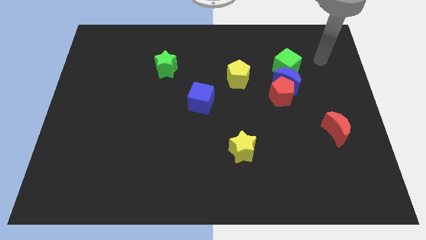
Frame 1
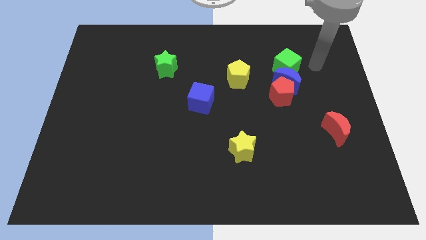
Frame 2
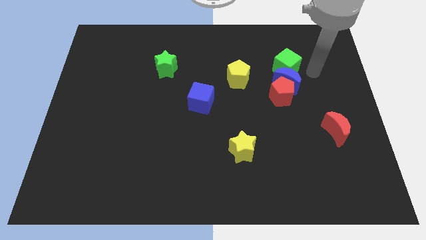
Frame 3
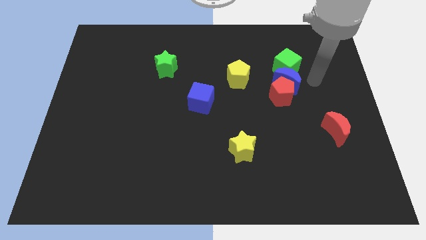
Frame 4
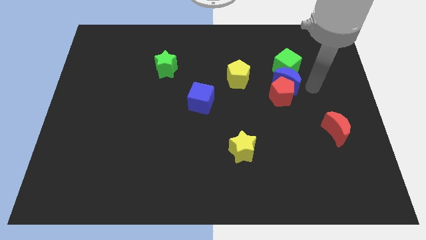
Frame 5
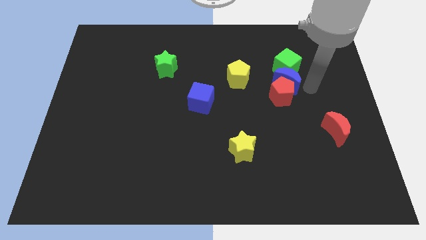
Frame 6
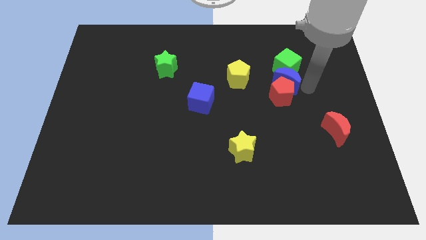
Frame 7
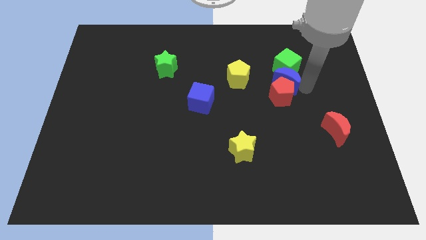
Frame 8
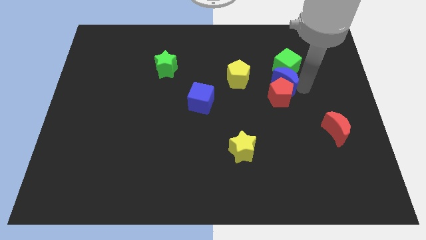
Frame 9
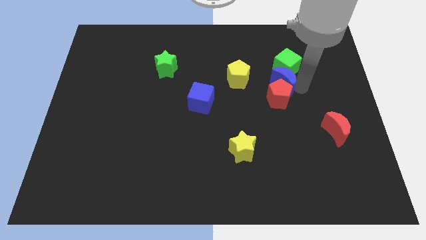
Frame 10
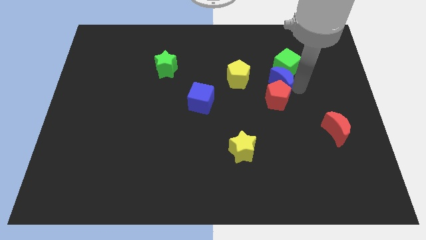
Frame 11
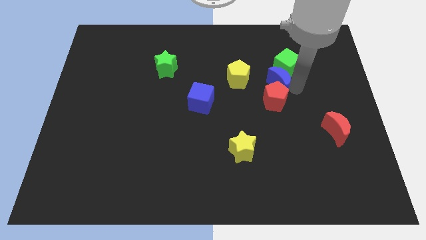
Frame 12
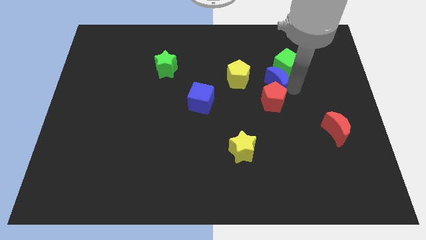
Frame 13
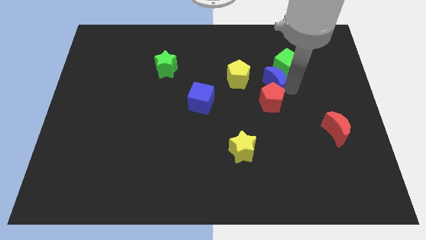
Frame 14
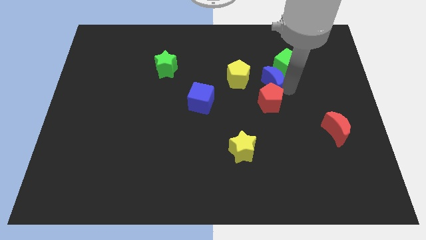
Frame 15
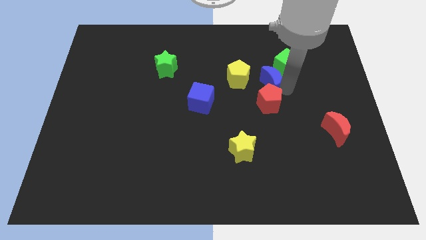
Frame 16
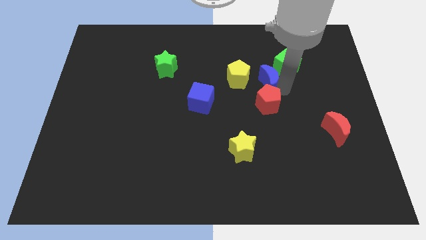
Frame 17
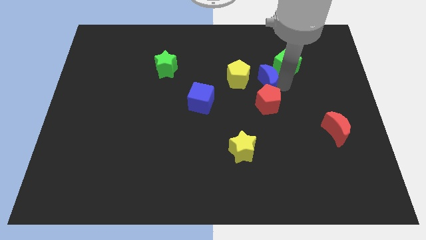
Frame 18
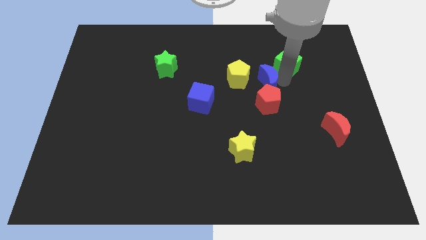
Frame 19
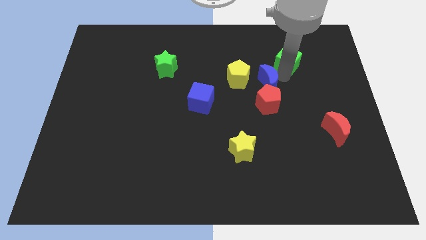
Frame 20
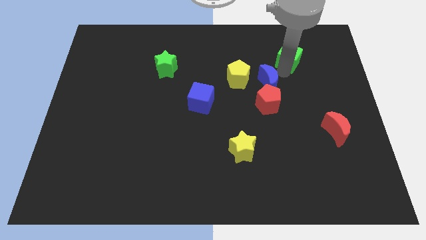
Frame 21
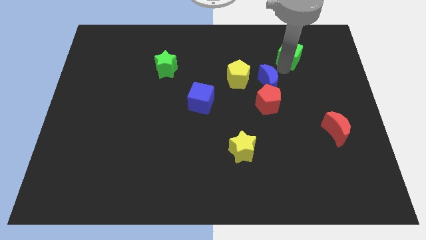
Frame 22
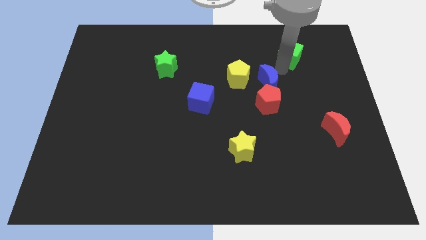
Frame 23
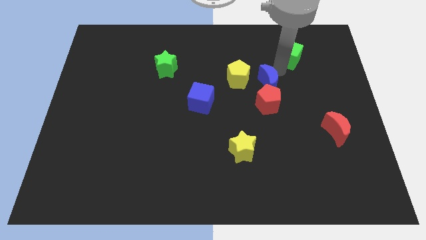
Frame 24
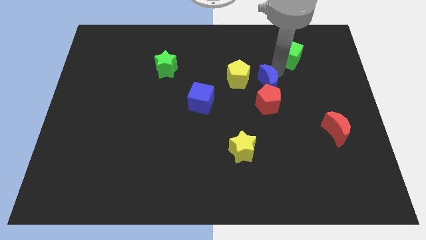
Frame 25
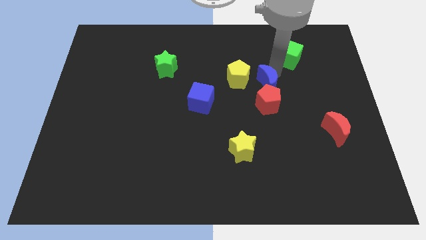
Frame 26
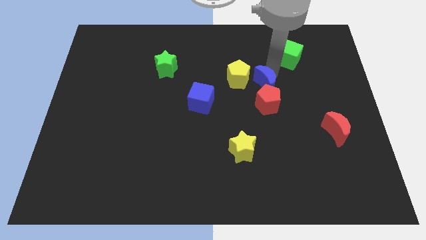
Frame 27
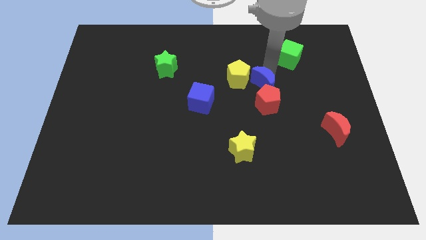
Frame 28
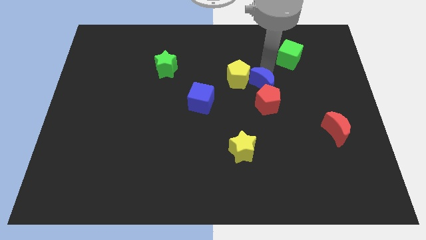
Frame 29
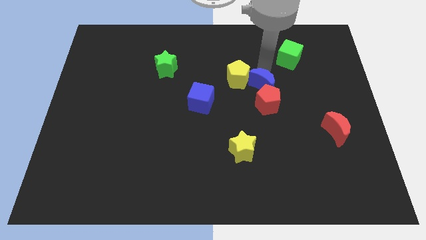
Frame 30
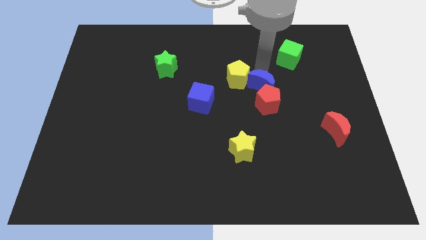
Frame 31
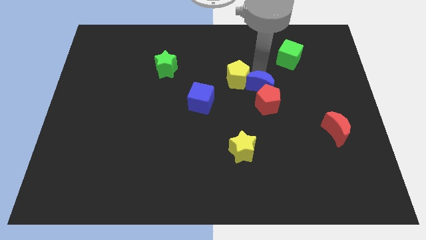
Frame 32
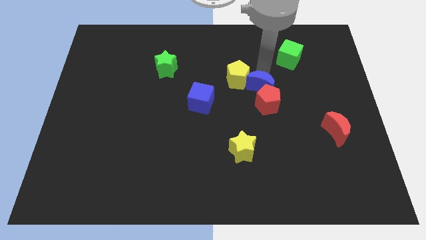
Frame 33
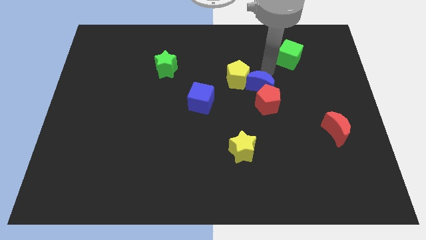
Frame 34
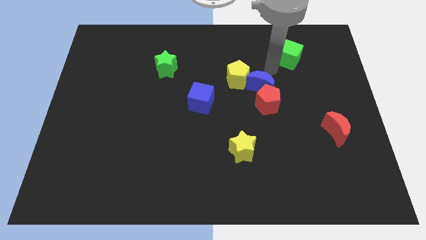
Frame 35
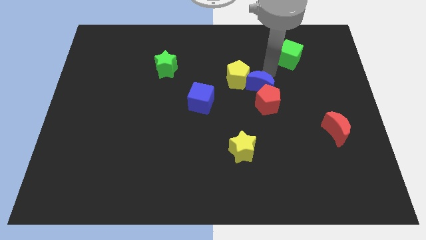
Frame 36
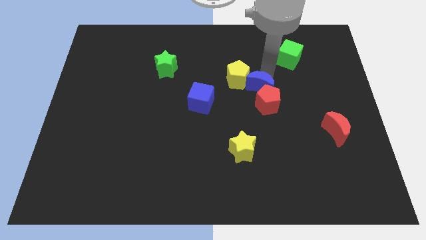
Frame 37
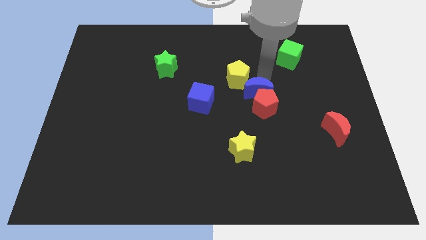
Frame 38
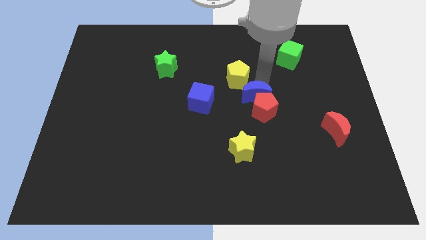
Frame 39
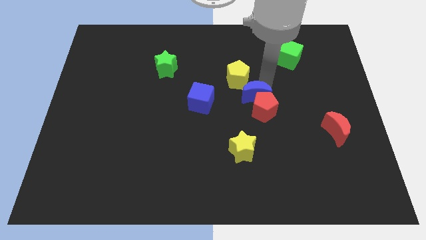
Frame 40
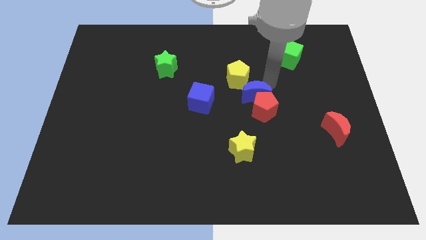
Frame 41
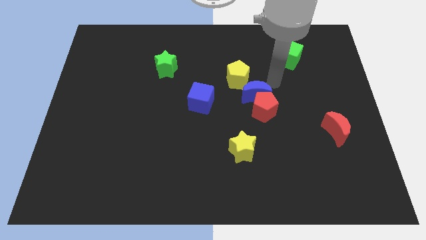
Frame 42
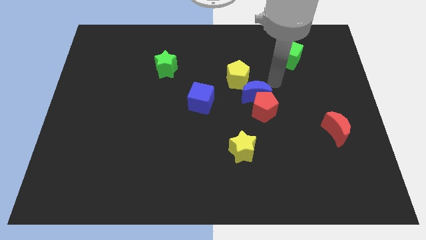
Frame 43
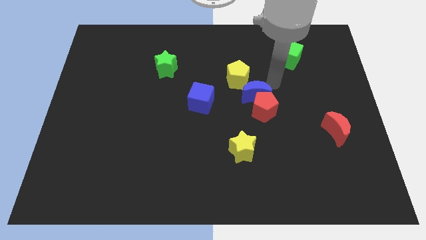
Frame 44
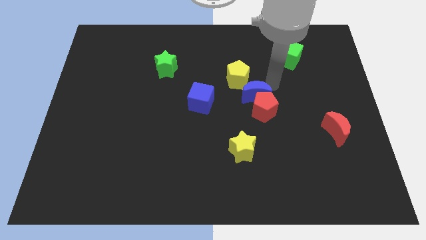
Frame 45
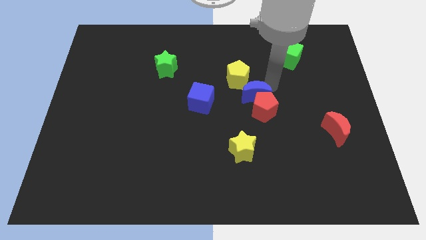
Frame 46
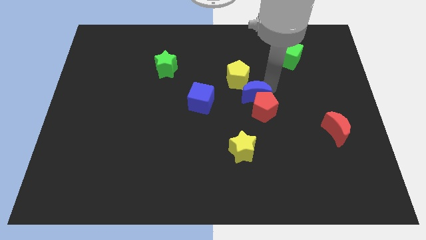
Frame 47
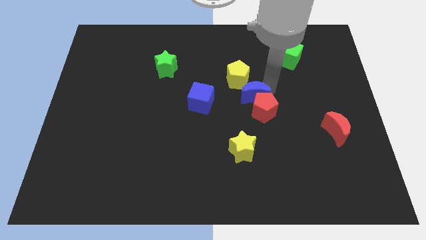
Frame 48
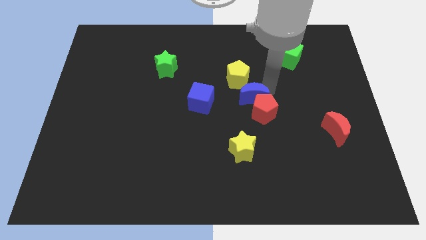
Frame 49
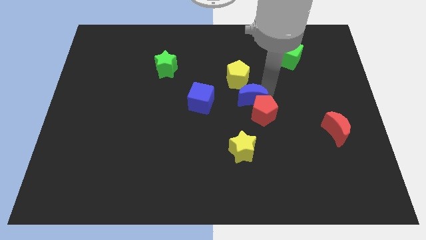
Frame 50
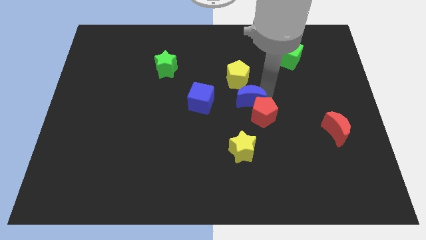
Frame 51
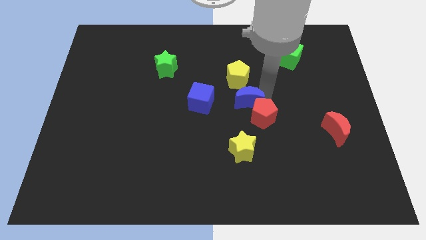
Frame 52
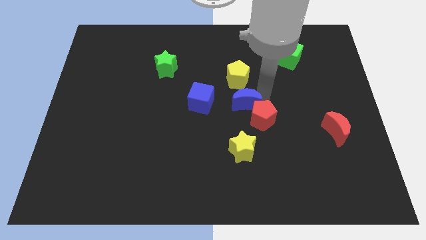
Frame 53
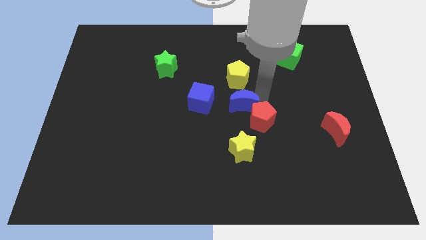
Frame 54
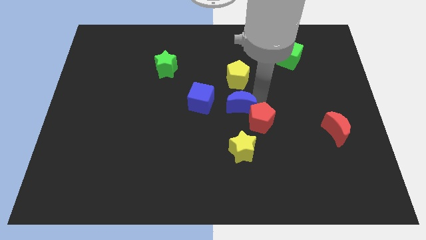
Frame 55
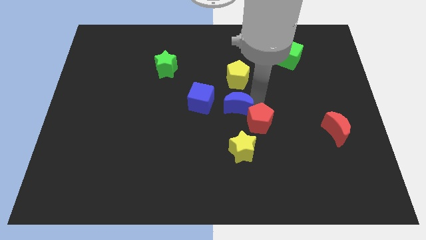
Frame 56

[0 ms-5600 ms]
slide the blue moon to the bottom right of the blue cube

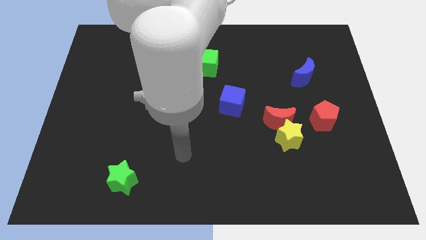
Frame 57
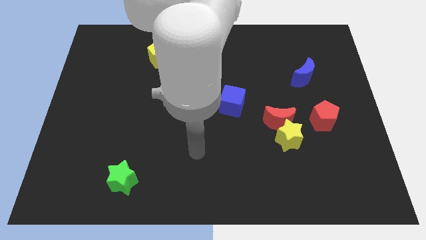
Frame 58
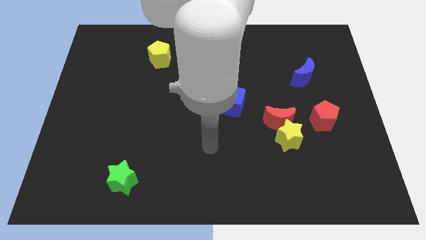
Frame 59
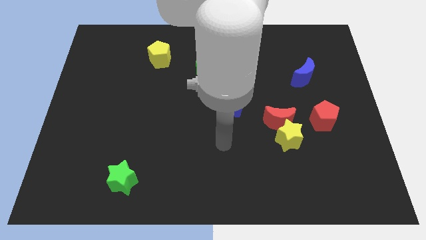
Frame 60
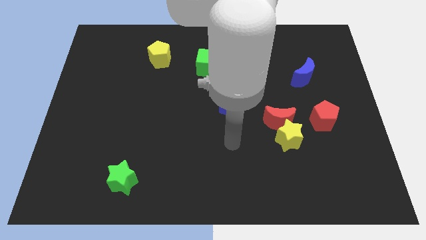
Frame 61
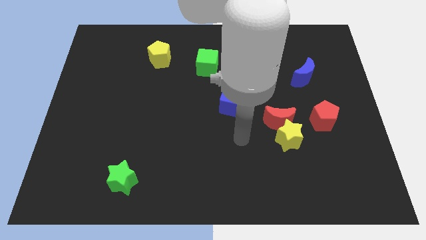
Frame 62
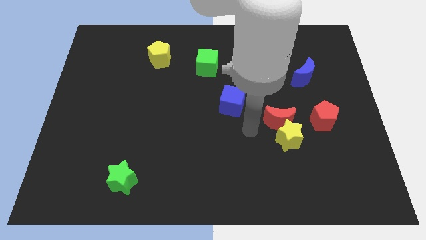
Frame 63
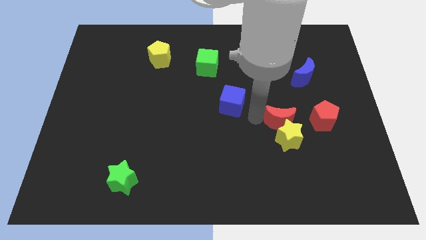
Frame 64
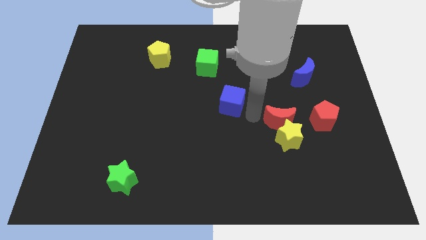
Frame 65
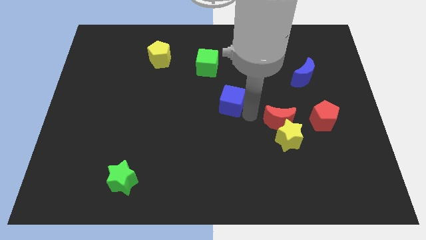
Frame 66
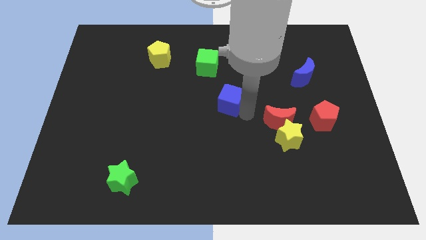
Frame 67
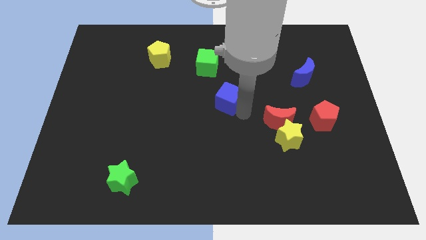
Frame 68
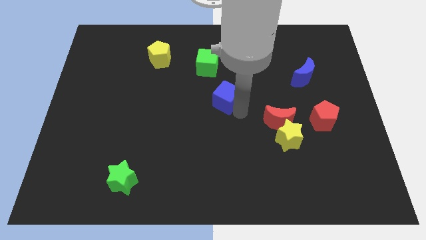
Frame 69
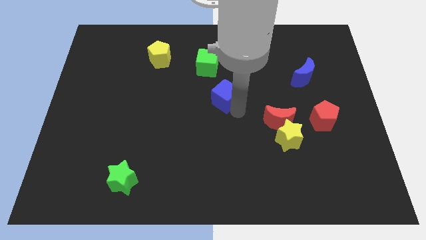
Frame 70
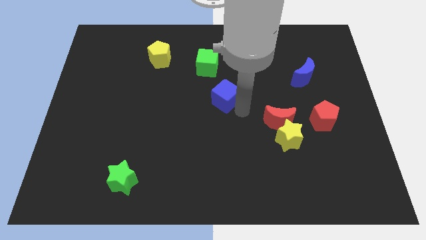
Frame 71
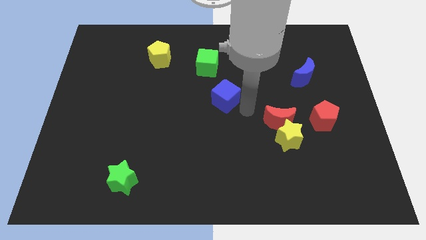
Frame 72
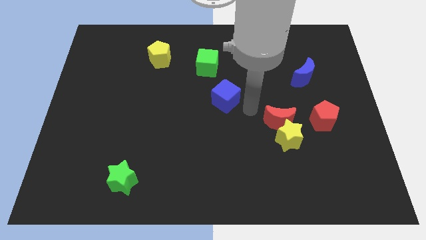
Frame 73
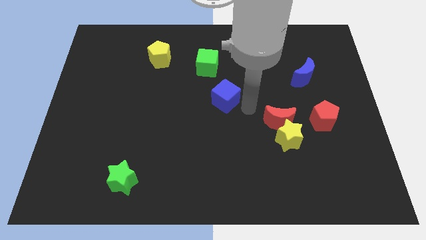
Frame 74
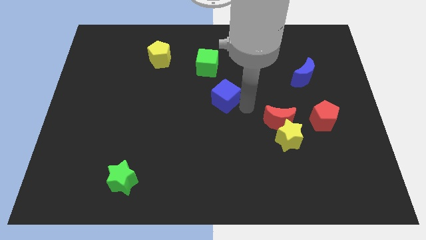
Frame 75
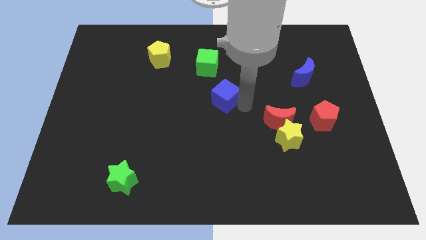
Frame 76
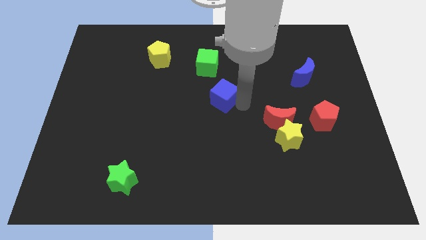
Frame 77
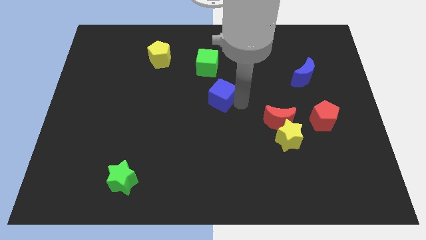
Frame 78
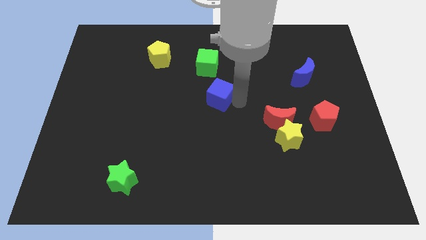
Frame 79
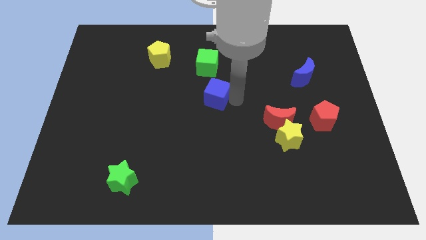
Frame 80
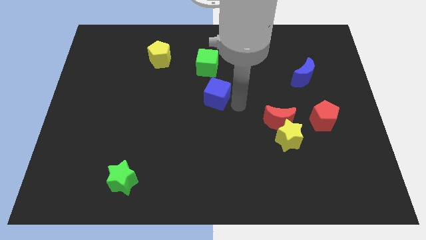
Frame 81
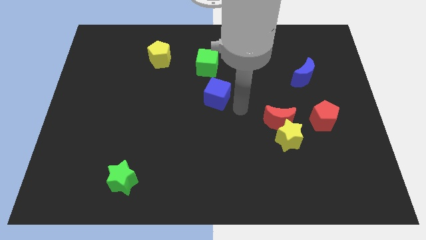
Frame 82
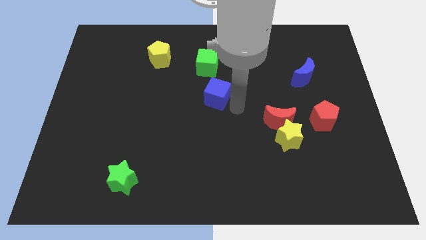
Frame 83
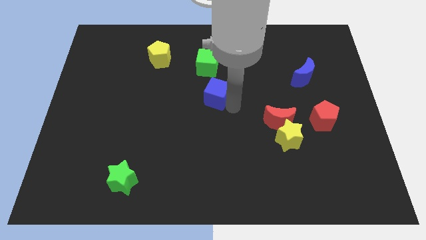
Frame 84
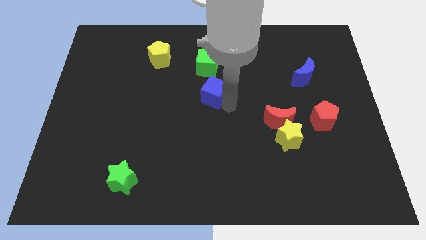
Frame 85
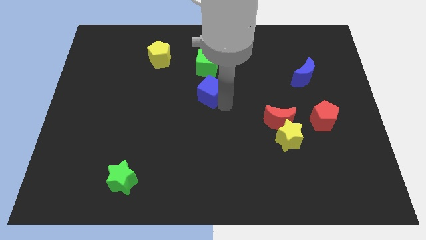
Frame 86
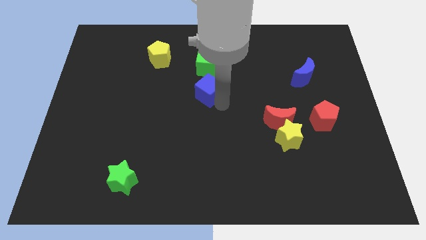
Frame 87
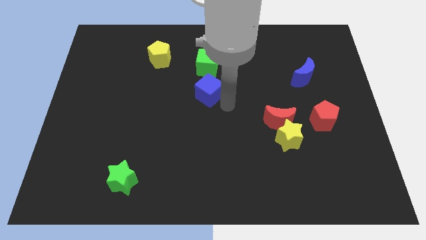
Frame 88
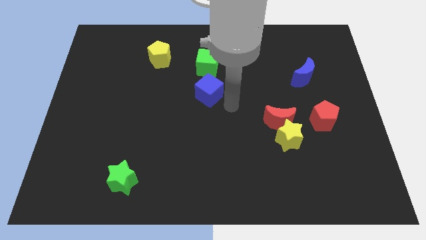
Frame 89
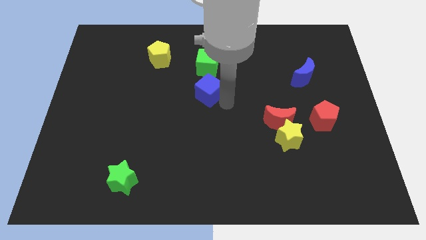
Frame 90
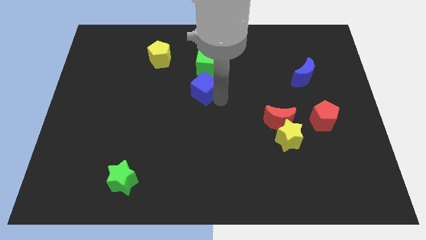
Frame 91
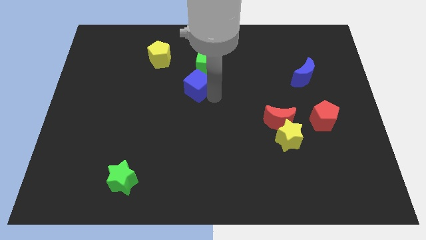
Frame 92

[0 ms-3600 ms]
put the blue cube diagonally down and to the left of the green cube
